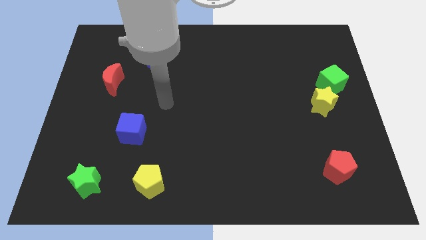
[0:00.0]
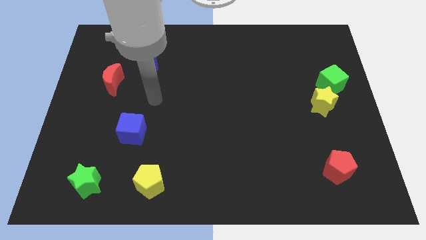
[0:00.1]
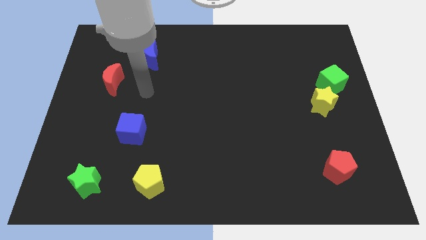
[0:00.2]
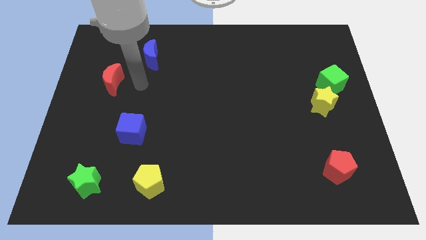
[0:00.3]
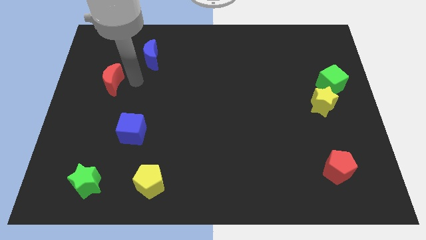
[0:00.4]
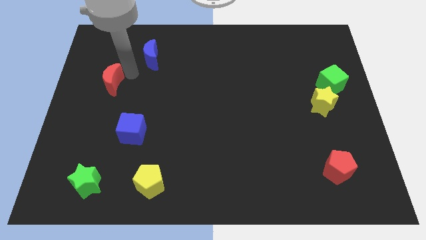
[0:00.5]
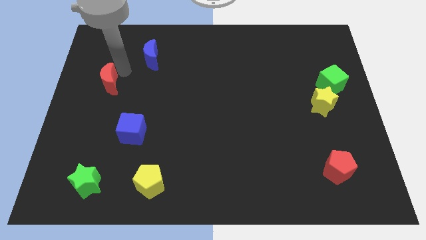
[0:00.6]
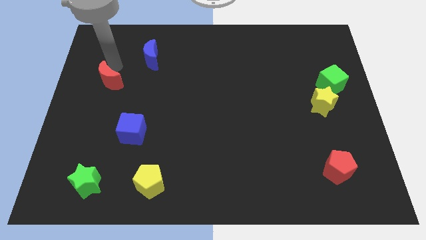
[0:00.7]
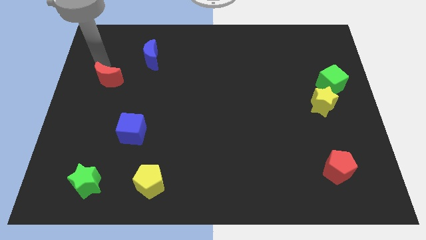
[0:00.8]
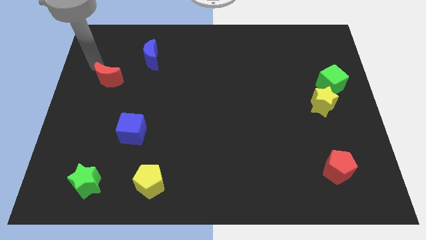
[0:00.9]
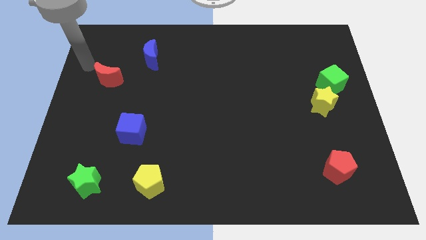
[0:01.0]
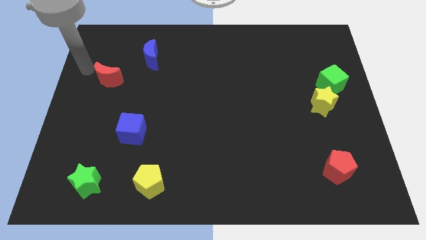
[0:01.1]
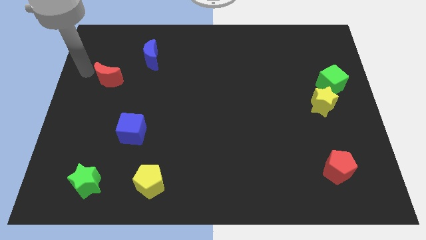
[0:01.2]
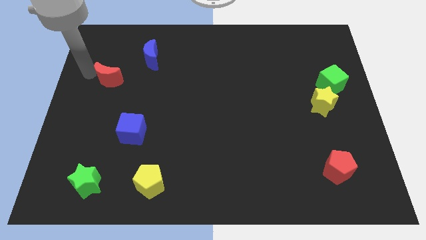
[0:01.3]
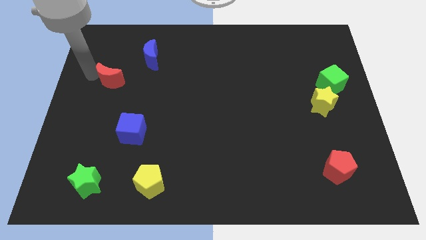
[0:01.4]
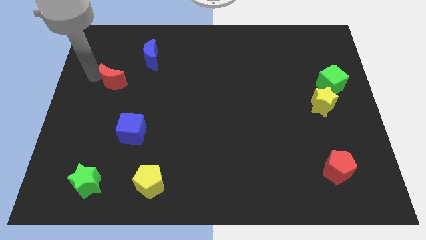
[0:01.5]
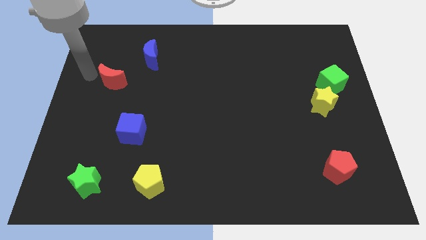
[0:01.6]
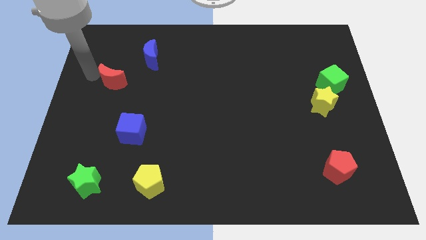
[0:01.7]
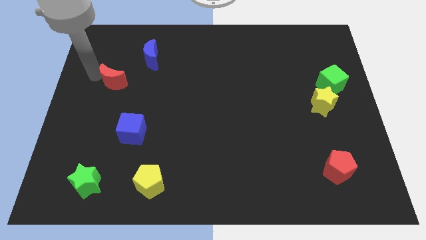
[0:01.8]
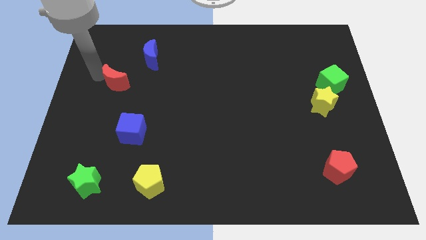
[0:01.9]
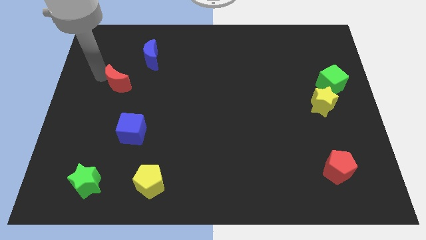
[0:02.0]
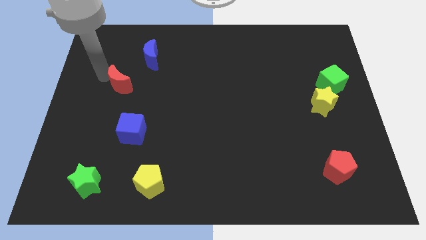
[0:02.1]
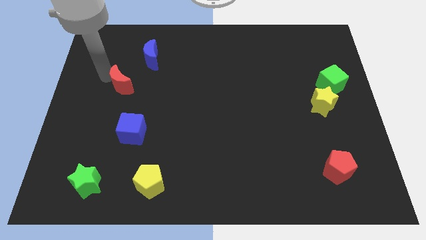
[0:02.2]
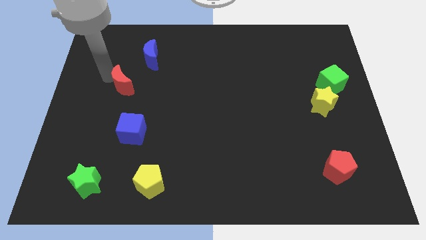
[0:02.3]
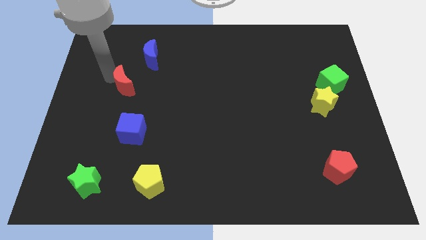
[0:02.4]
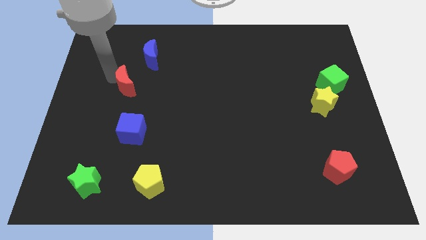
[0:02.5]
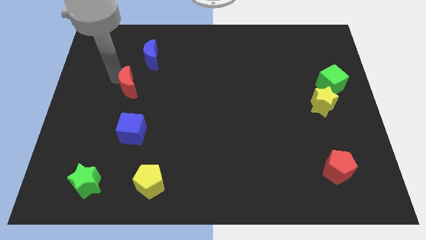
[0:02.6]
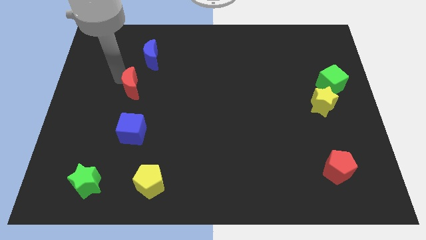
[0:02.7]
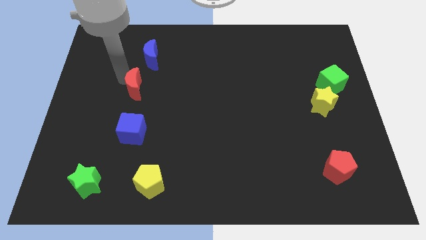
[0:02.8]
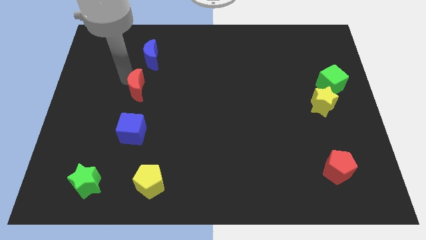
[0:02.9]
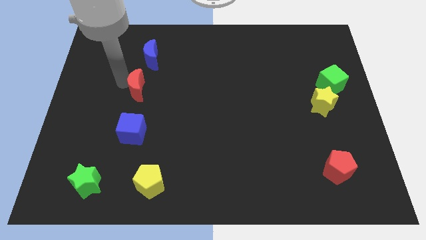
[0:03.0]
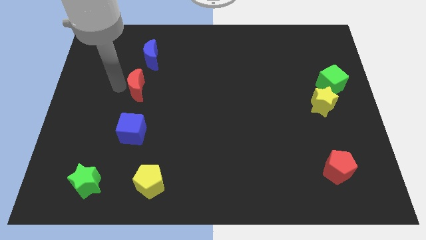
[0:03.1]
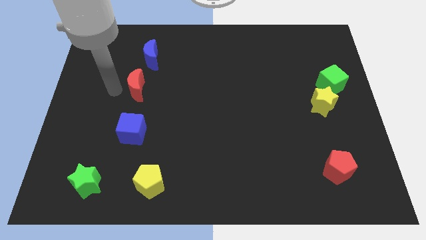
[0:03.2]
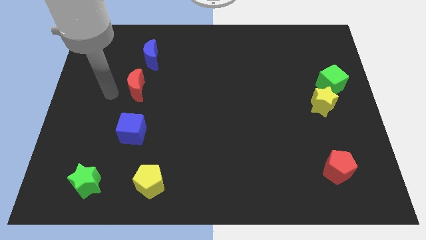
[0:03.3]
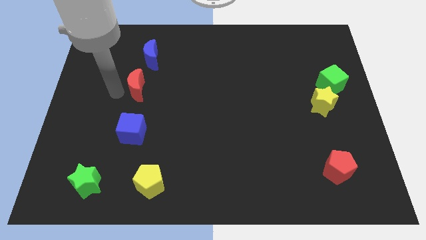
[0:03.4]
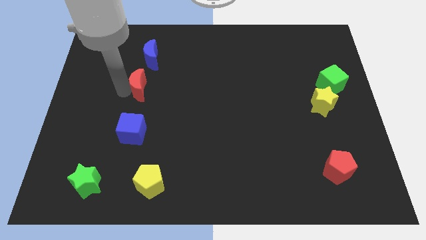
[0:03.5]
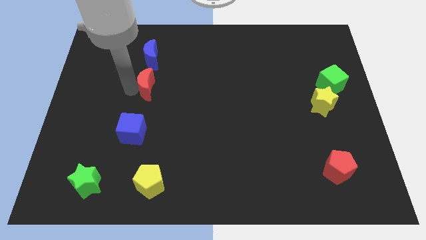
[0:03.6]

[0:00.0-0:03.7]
slightly move the red moon to the right

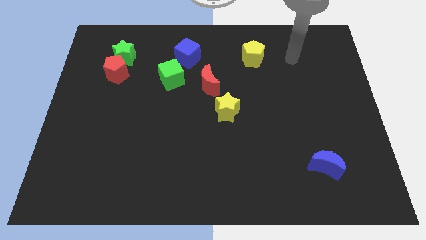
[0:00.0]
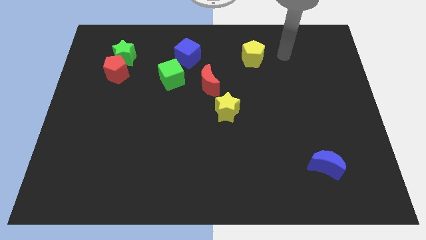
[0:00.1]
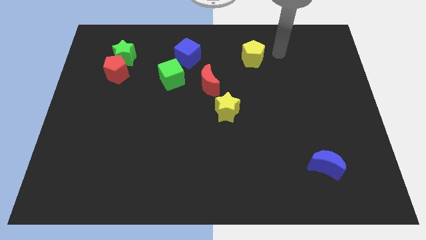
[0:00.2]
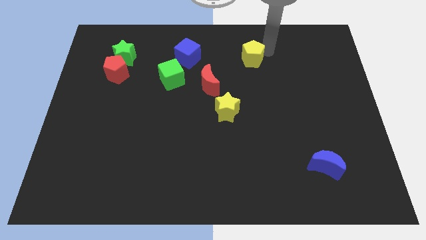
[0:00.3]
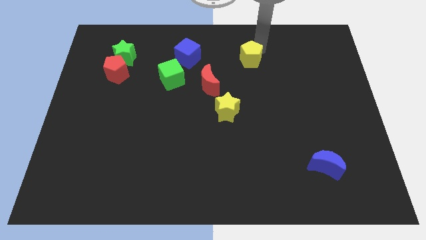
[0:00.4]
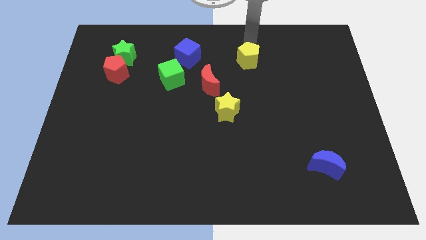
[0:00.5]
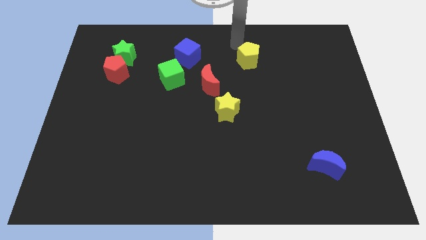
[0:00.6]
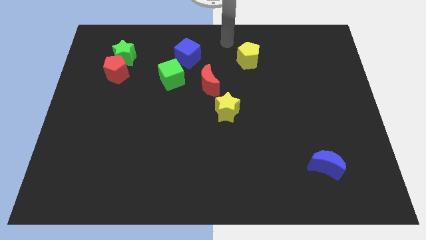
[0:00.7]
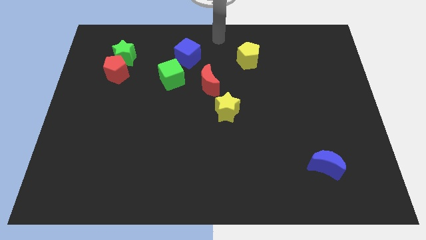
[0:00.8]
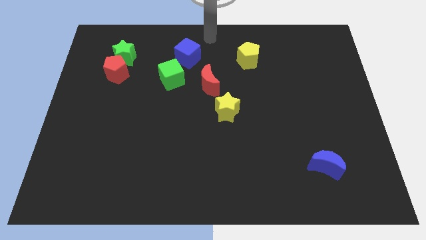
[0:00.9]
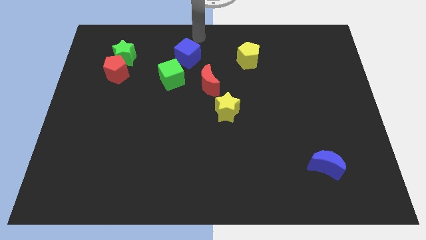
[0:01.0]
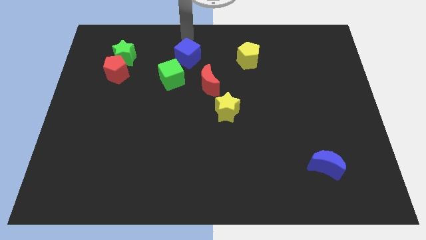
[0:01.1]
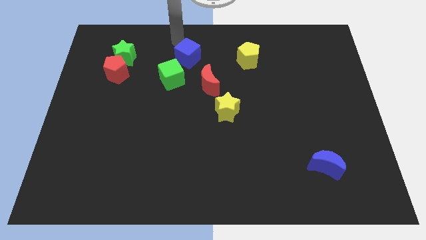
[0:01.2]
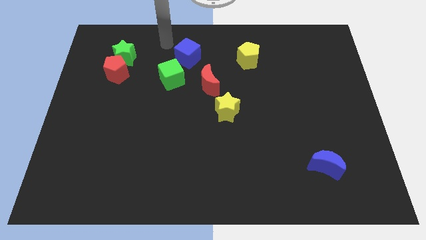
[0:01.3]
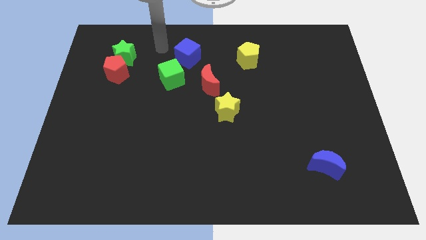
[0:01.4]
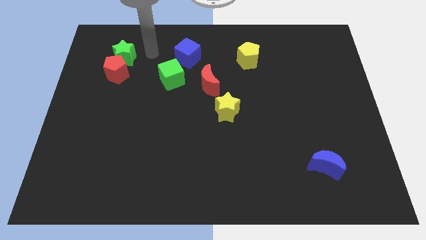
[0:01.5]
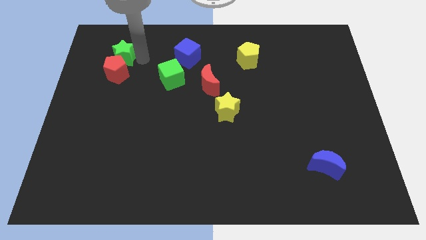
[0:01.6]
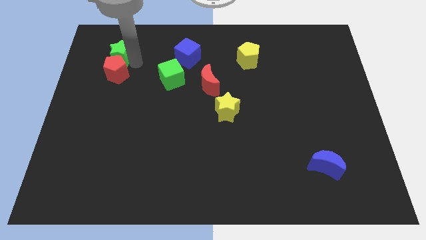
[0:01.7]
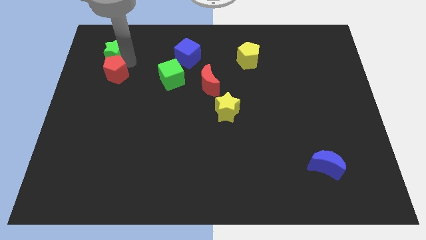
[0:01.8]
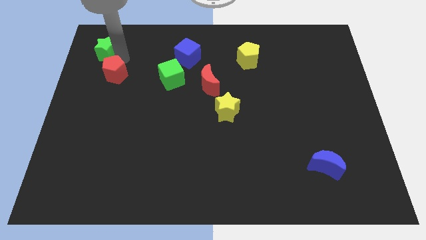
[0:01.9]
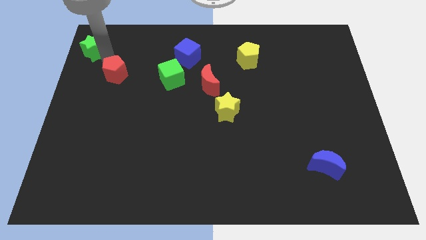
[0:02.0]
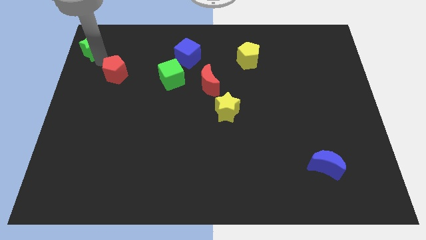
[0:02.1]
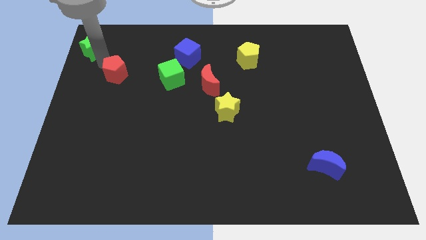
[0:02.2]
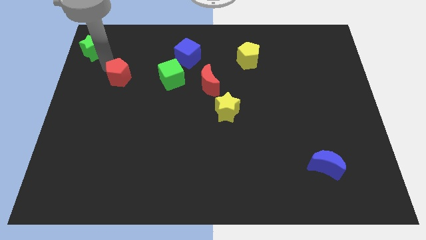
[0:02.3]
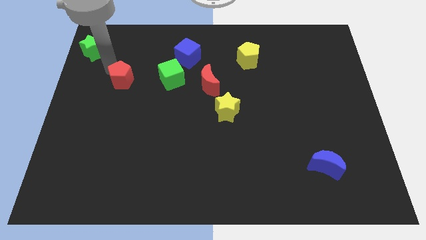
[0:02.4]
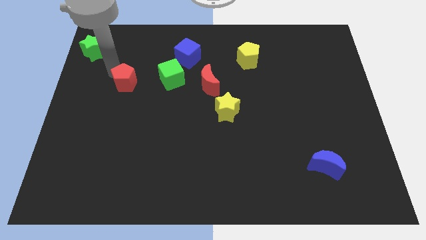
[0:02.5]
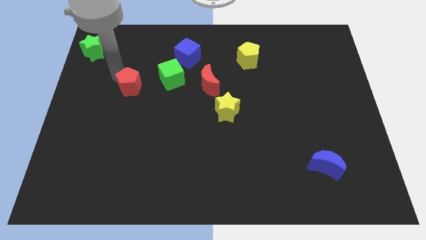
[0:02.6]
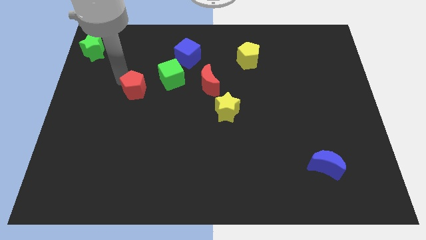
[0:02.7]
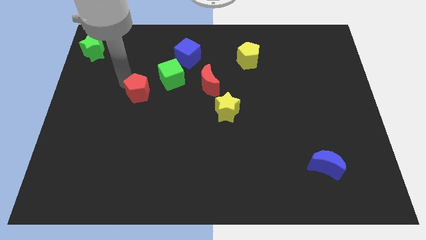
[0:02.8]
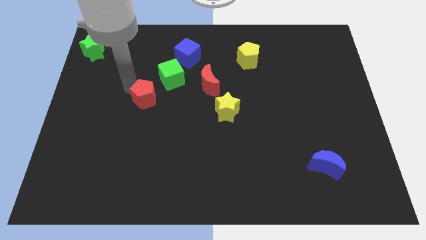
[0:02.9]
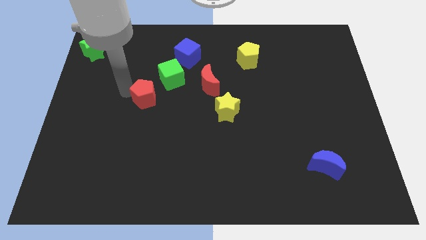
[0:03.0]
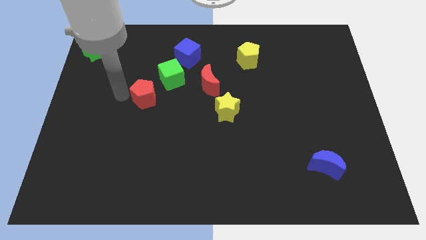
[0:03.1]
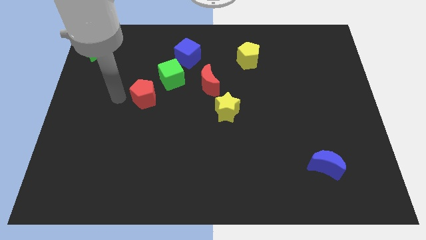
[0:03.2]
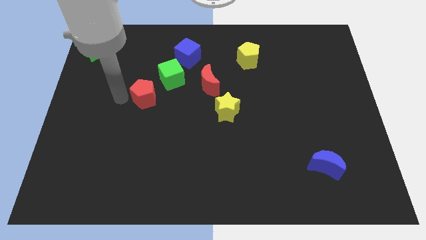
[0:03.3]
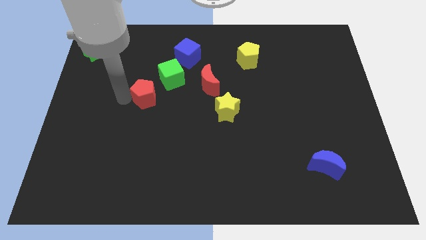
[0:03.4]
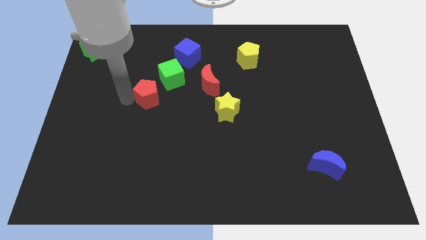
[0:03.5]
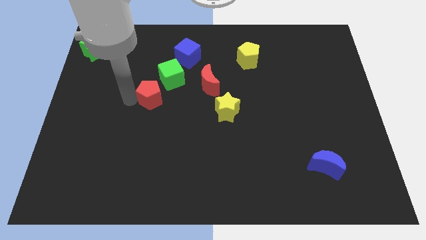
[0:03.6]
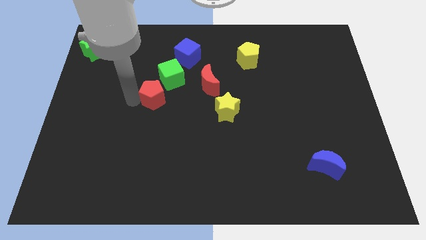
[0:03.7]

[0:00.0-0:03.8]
move the red pentagon right a little

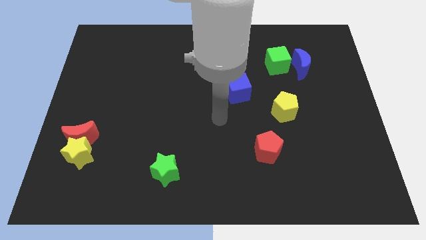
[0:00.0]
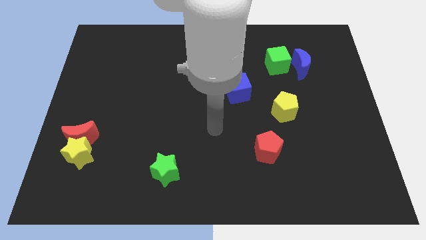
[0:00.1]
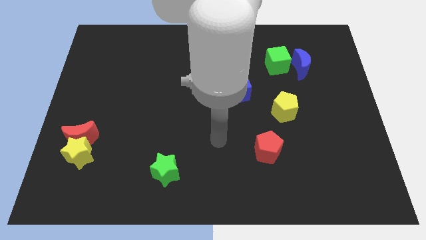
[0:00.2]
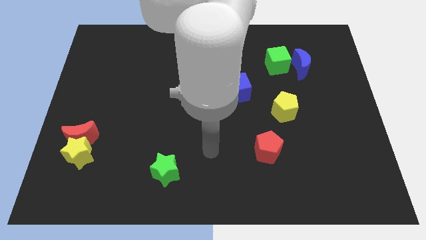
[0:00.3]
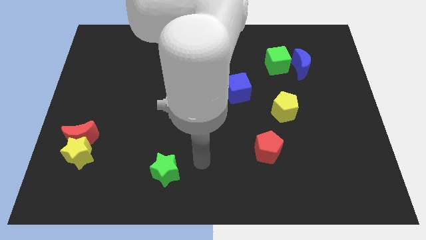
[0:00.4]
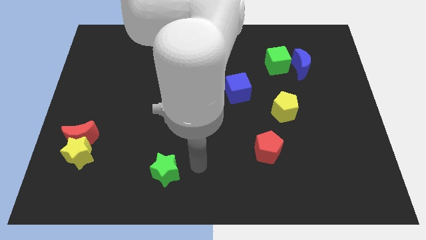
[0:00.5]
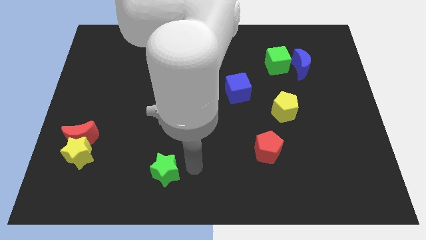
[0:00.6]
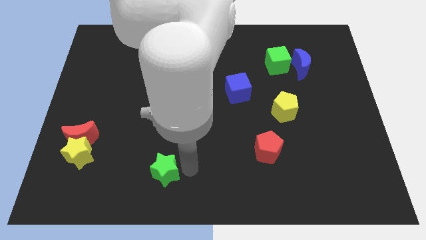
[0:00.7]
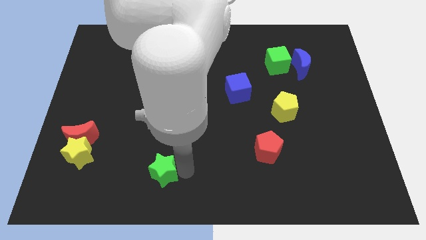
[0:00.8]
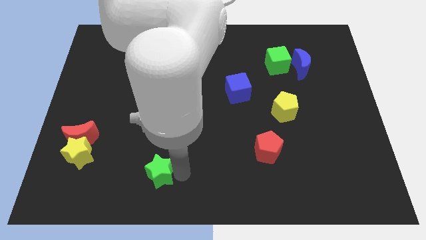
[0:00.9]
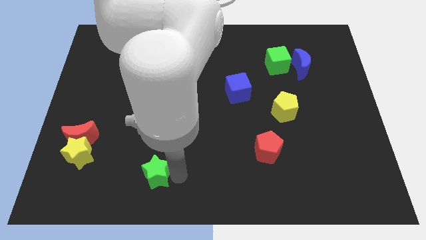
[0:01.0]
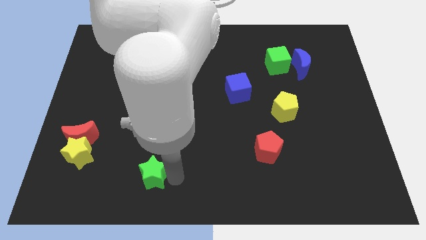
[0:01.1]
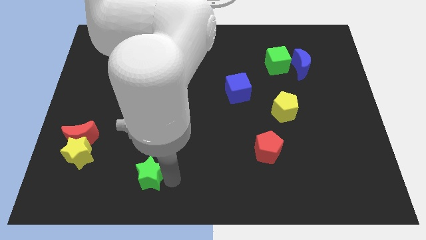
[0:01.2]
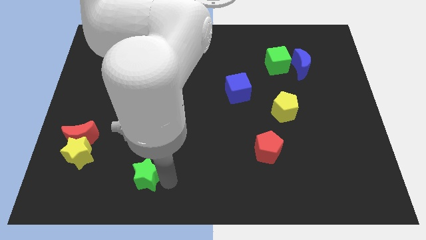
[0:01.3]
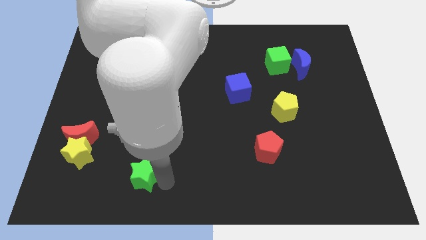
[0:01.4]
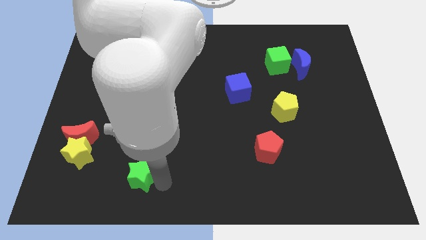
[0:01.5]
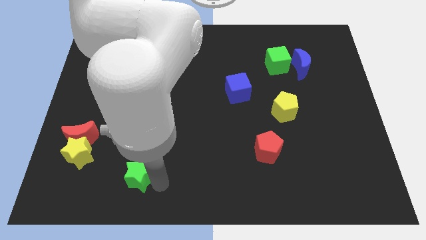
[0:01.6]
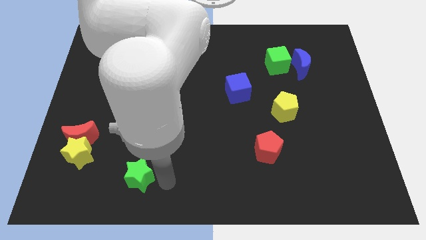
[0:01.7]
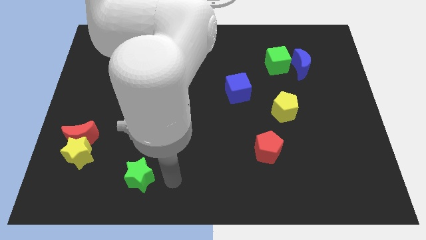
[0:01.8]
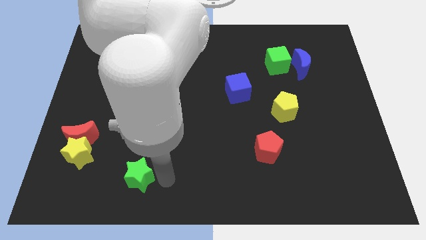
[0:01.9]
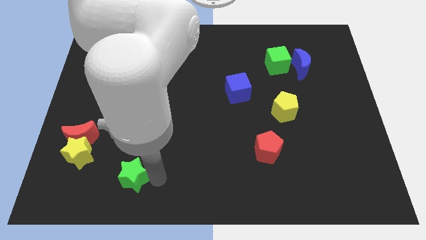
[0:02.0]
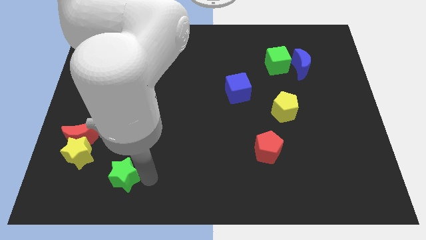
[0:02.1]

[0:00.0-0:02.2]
slide the green star a little to the left
